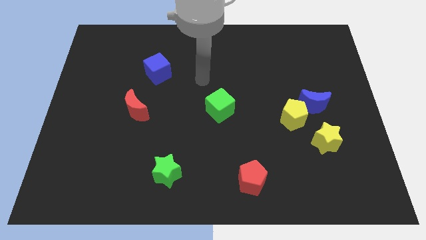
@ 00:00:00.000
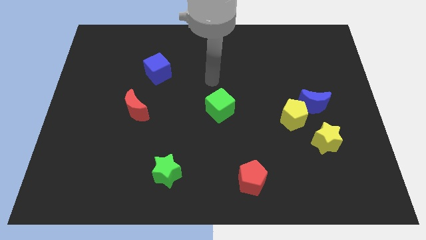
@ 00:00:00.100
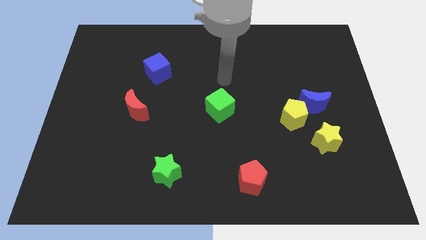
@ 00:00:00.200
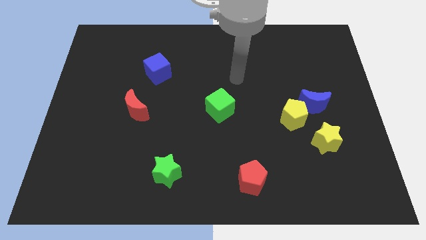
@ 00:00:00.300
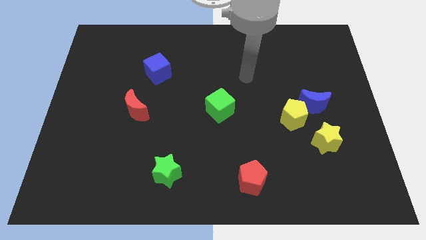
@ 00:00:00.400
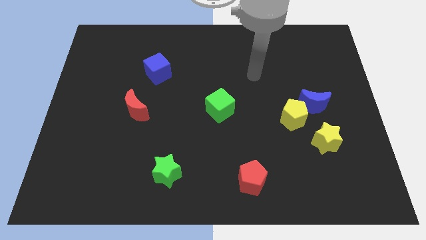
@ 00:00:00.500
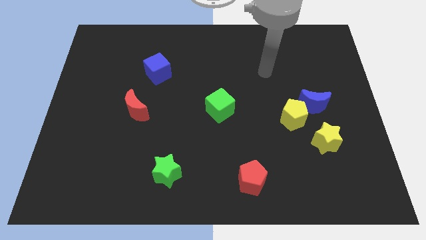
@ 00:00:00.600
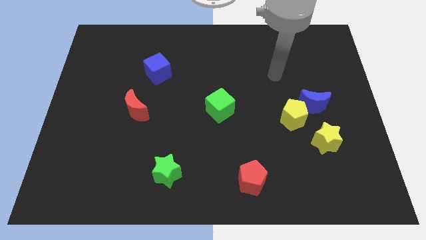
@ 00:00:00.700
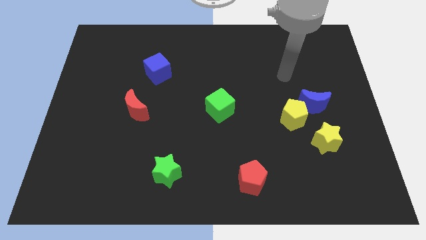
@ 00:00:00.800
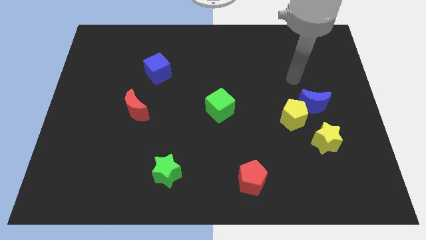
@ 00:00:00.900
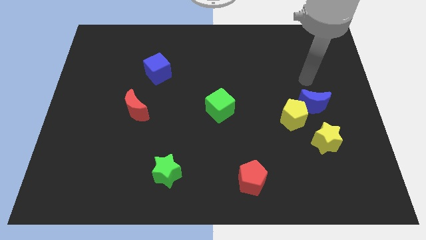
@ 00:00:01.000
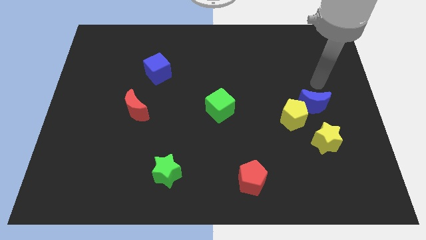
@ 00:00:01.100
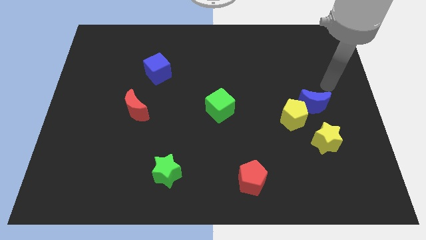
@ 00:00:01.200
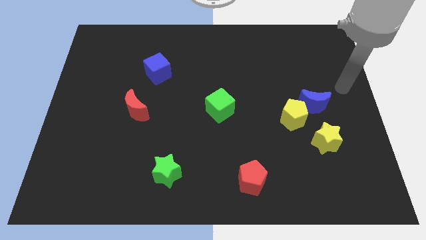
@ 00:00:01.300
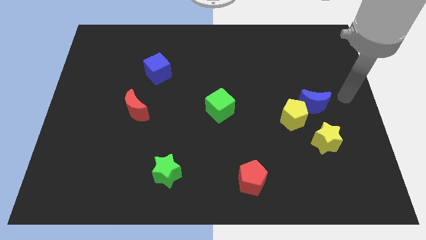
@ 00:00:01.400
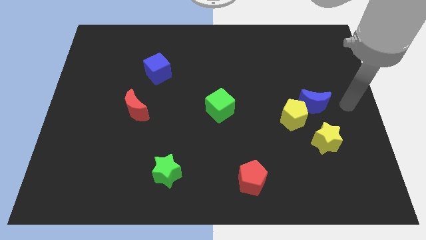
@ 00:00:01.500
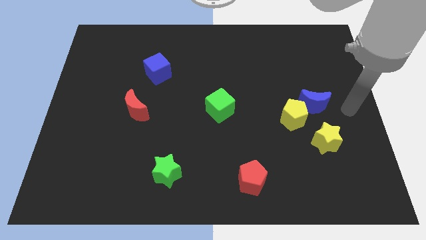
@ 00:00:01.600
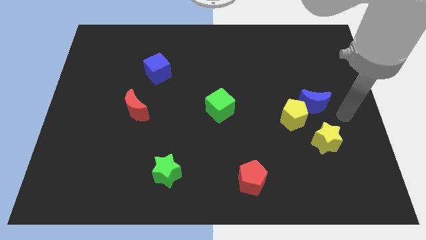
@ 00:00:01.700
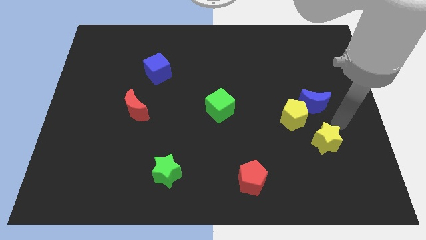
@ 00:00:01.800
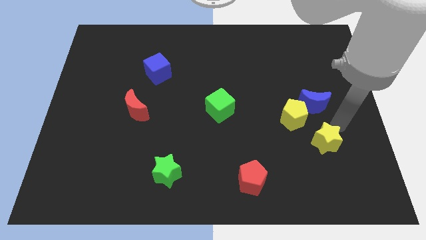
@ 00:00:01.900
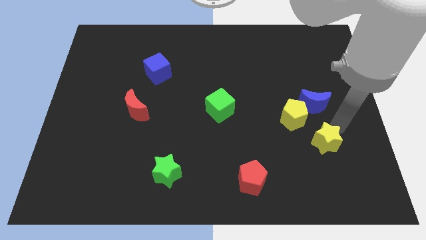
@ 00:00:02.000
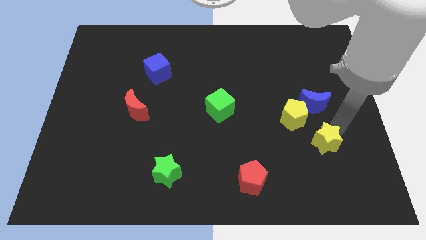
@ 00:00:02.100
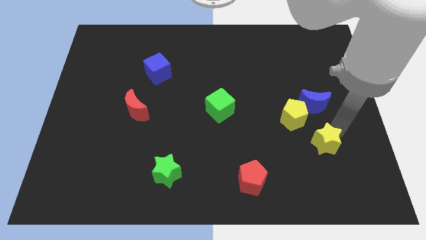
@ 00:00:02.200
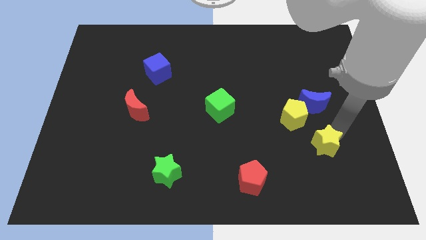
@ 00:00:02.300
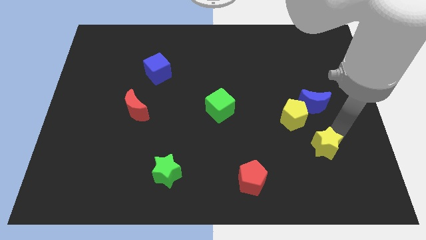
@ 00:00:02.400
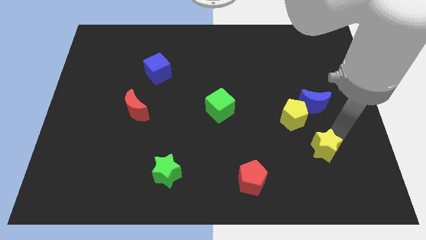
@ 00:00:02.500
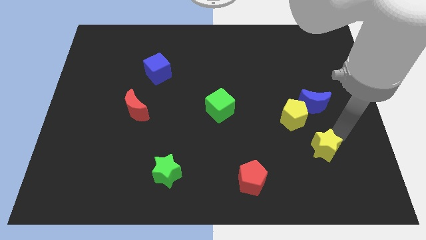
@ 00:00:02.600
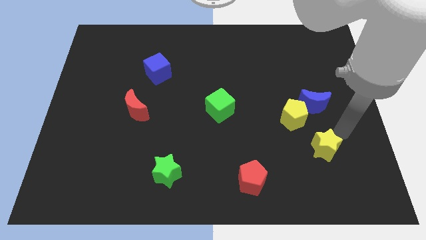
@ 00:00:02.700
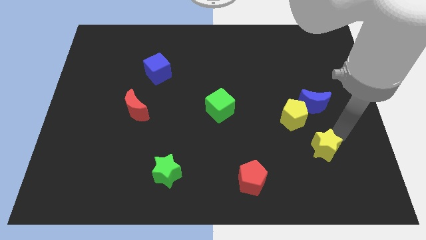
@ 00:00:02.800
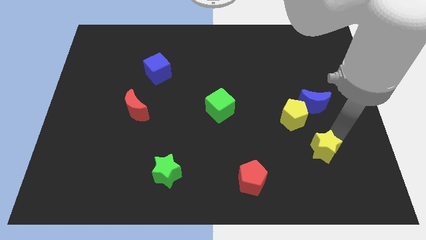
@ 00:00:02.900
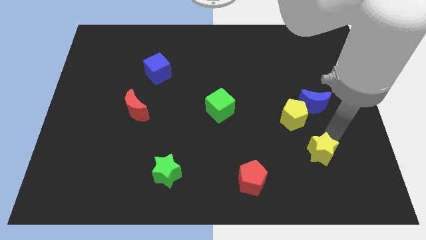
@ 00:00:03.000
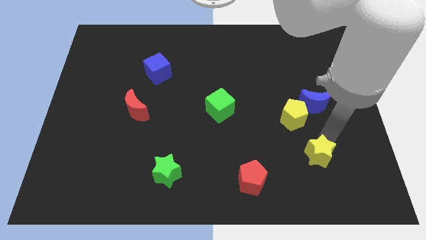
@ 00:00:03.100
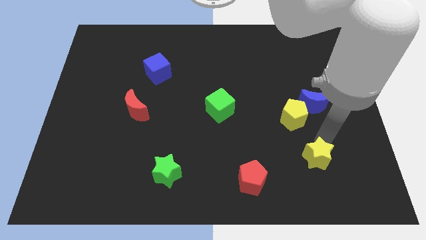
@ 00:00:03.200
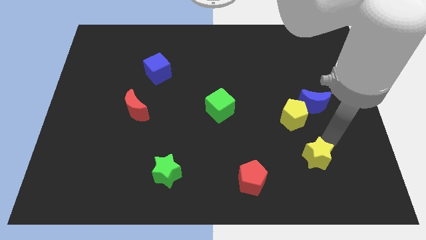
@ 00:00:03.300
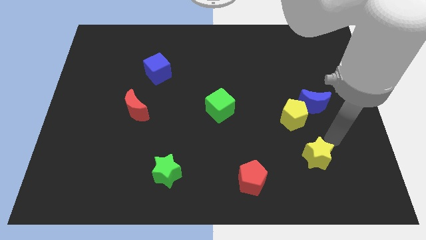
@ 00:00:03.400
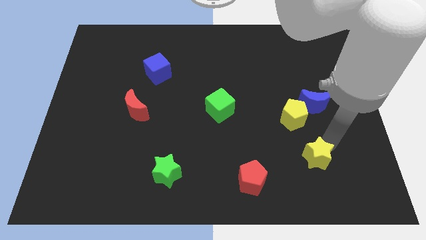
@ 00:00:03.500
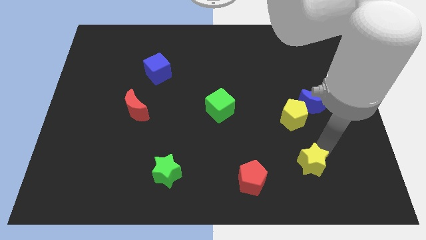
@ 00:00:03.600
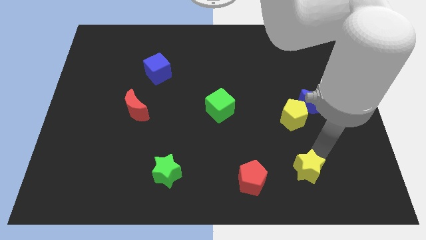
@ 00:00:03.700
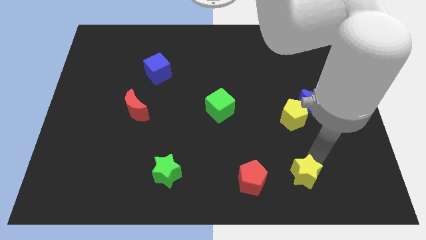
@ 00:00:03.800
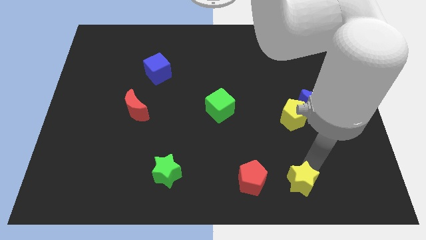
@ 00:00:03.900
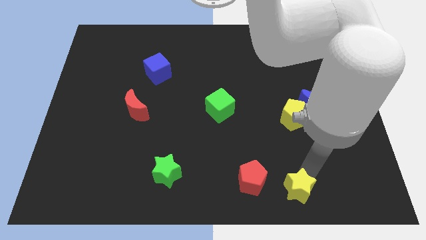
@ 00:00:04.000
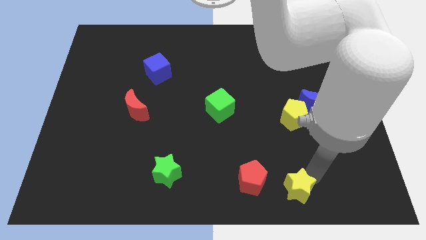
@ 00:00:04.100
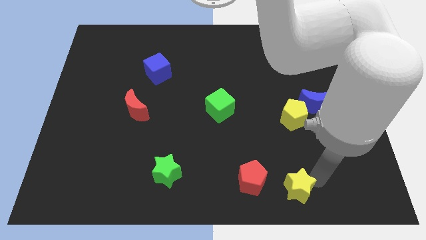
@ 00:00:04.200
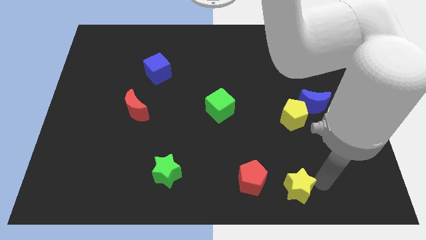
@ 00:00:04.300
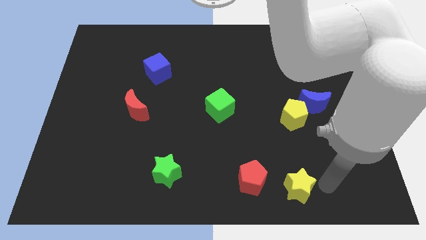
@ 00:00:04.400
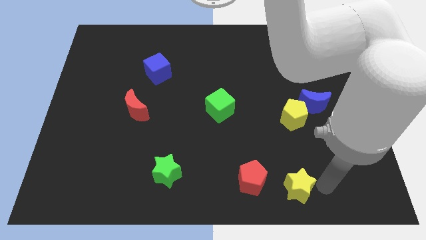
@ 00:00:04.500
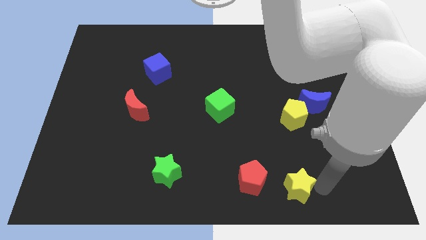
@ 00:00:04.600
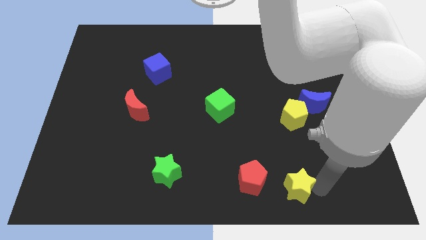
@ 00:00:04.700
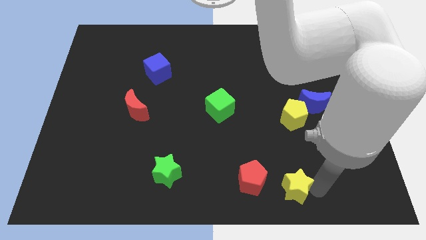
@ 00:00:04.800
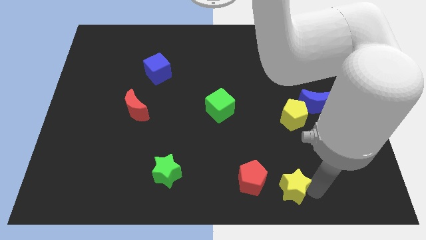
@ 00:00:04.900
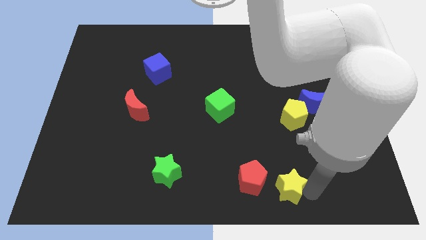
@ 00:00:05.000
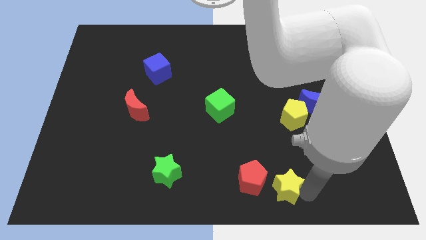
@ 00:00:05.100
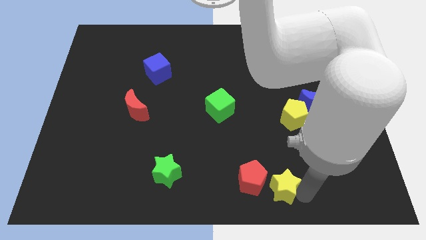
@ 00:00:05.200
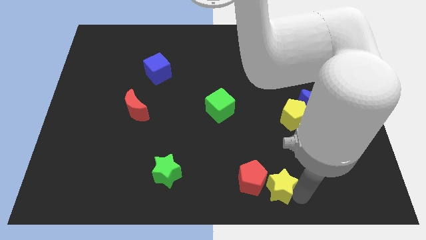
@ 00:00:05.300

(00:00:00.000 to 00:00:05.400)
push the yellow star to the bottom

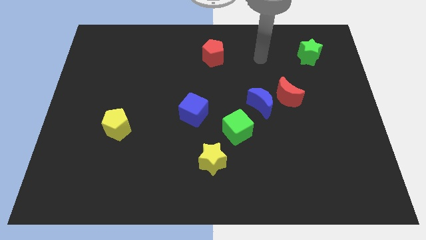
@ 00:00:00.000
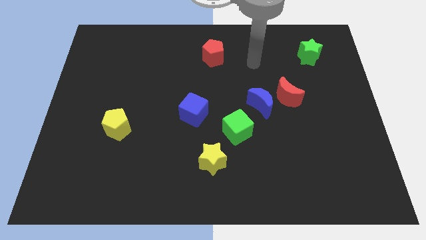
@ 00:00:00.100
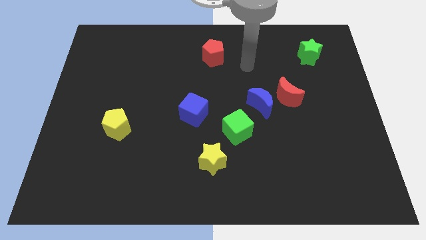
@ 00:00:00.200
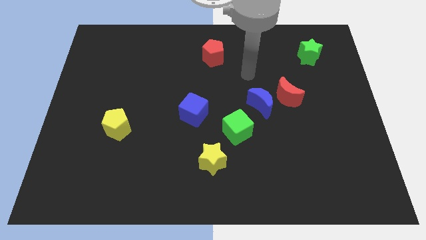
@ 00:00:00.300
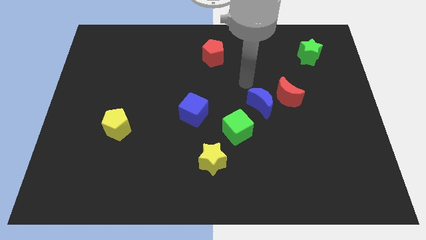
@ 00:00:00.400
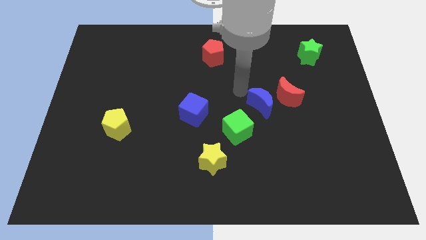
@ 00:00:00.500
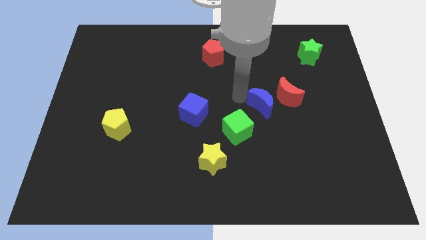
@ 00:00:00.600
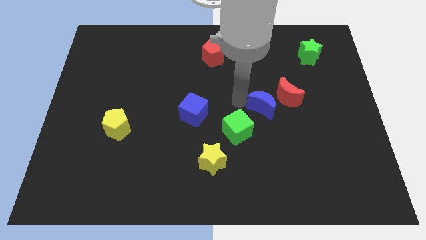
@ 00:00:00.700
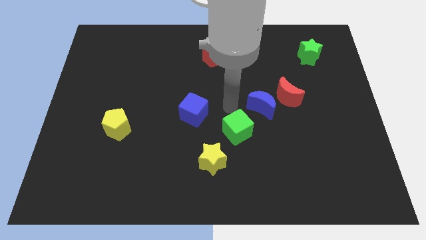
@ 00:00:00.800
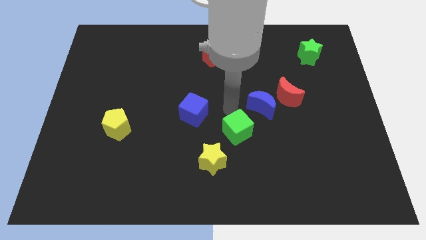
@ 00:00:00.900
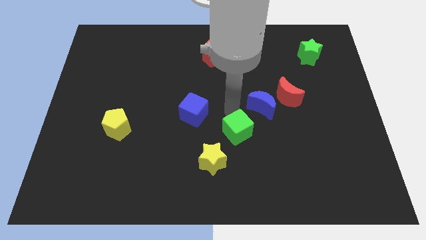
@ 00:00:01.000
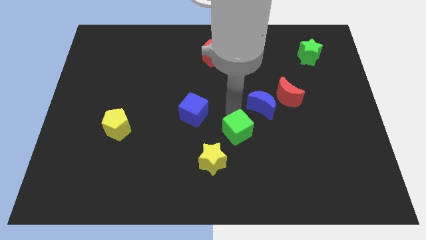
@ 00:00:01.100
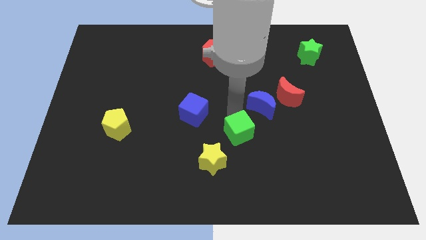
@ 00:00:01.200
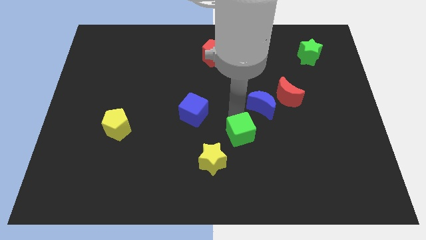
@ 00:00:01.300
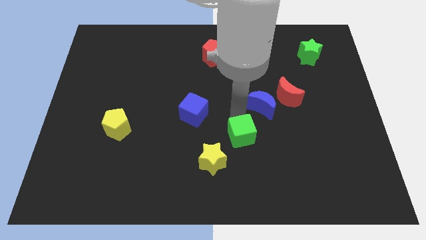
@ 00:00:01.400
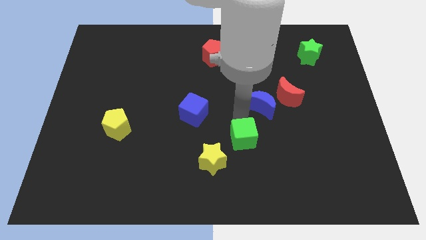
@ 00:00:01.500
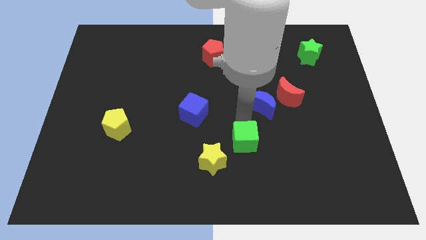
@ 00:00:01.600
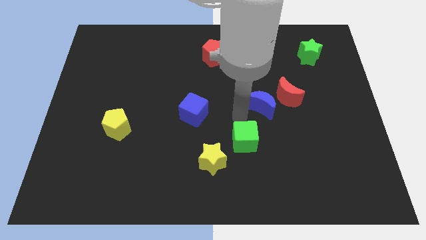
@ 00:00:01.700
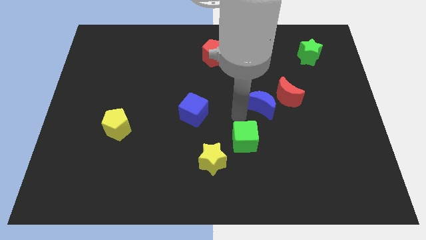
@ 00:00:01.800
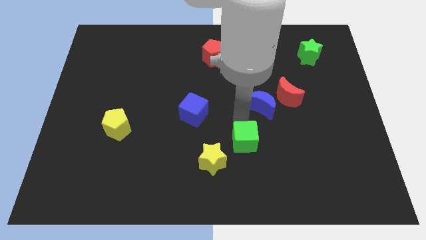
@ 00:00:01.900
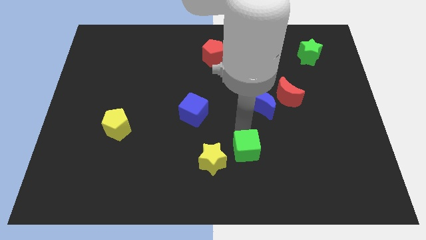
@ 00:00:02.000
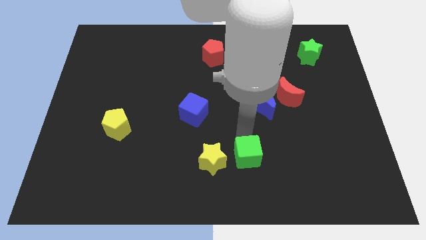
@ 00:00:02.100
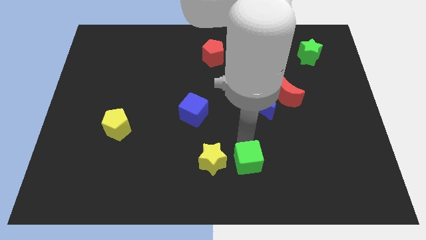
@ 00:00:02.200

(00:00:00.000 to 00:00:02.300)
move the green cube to the bottom side
